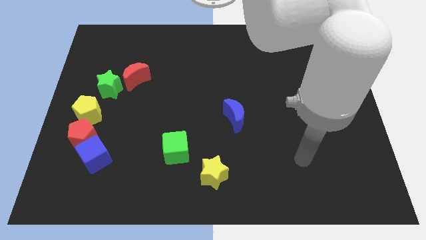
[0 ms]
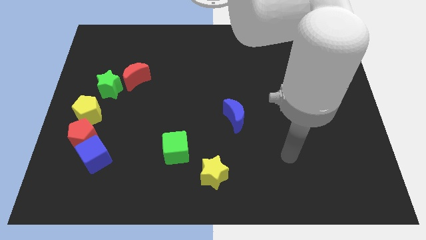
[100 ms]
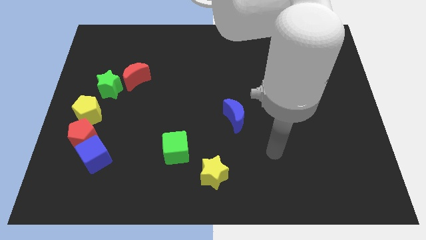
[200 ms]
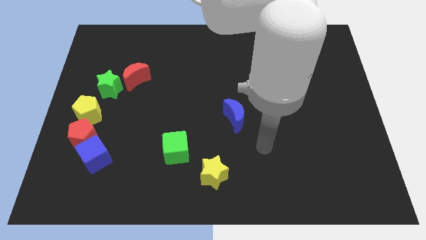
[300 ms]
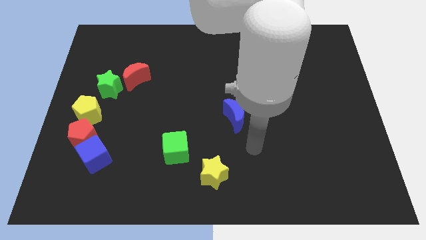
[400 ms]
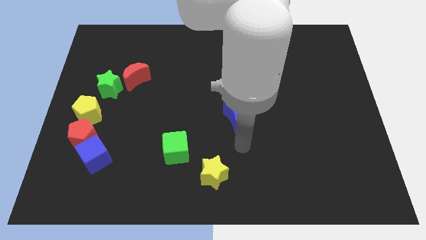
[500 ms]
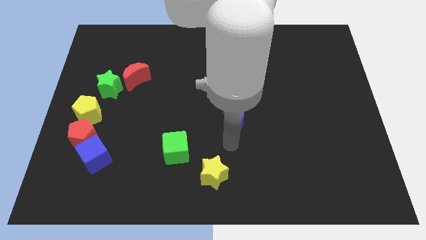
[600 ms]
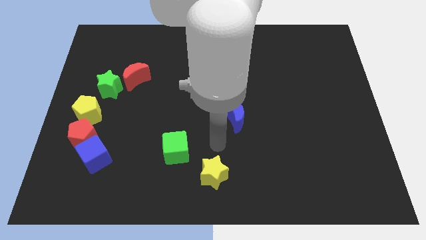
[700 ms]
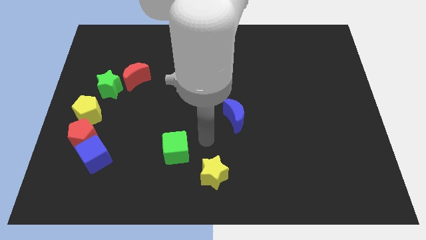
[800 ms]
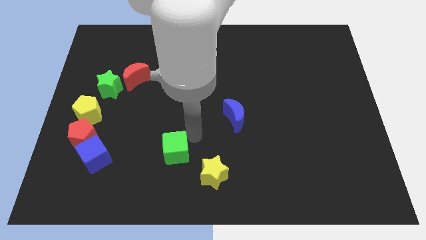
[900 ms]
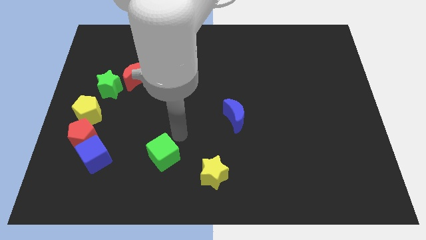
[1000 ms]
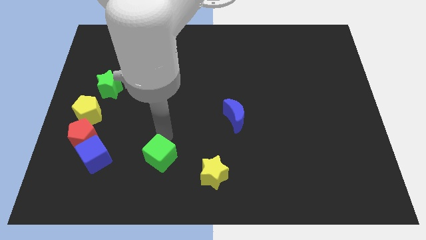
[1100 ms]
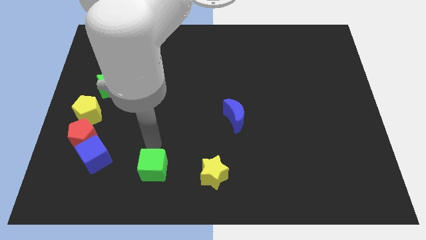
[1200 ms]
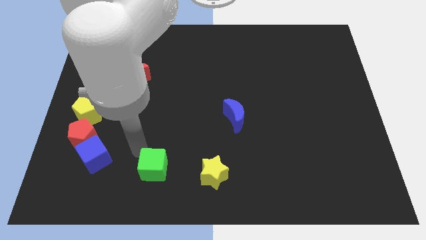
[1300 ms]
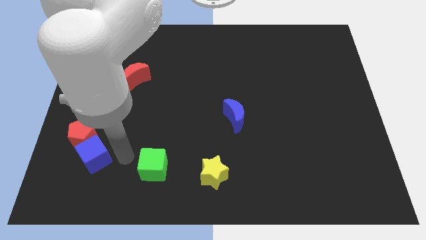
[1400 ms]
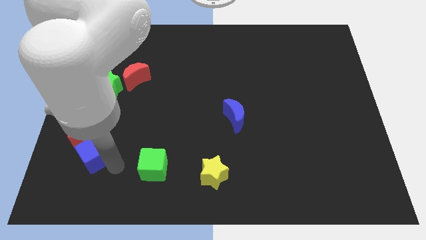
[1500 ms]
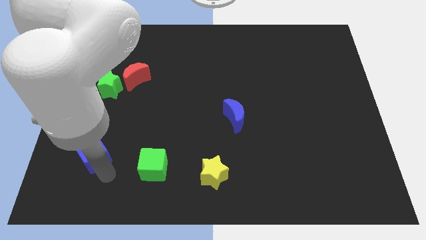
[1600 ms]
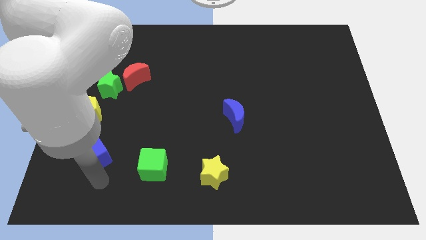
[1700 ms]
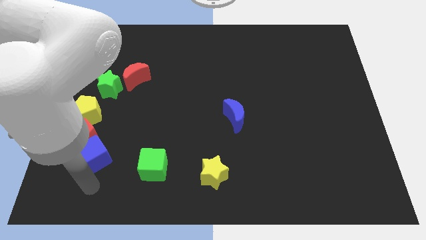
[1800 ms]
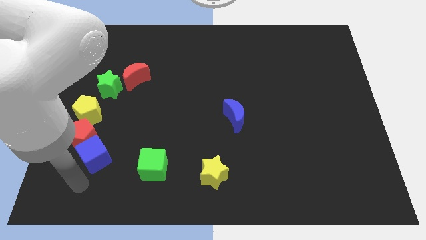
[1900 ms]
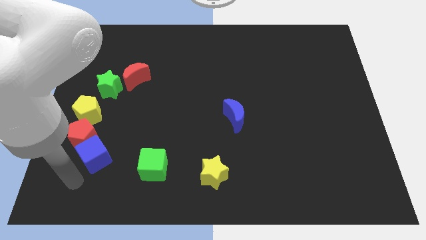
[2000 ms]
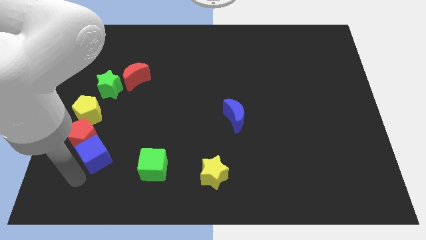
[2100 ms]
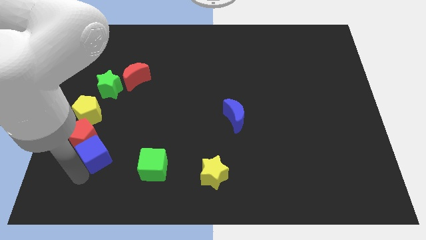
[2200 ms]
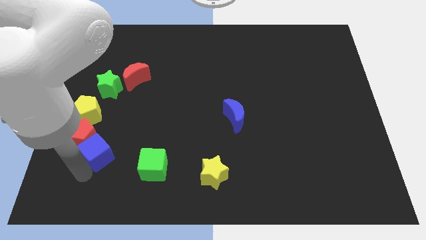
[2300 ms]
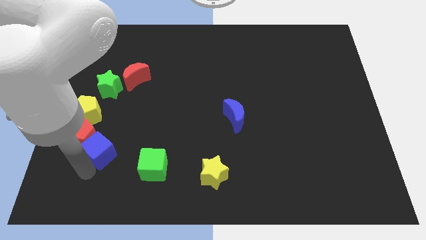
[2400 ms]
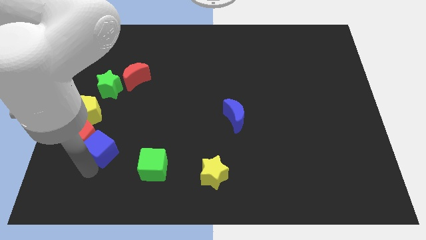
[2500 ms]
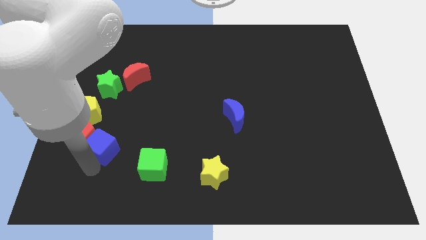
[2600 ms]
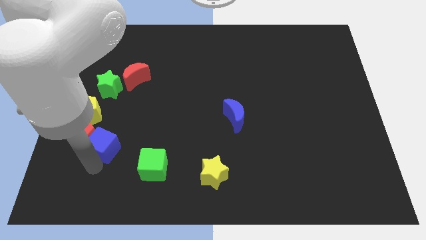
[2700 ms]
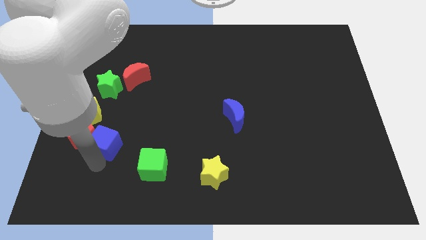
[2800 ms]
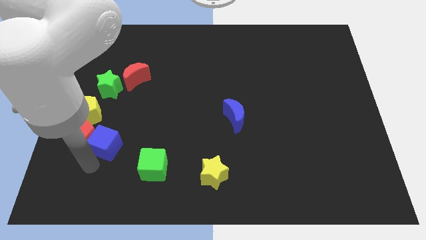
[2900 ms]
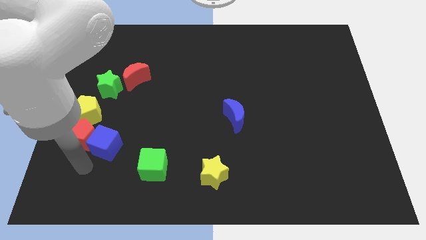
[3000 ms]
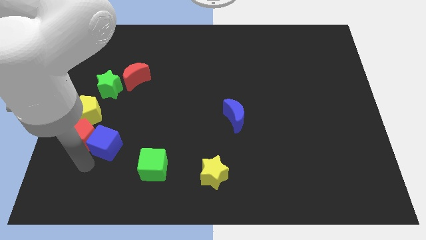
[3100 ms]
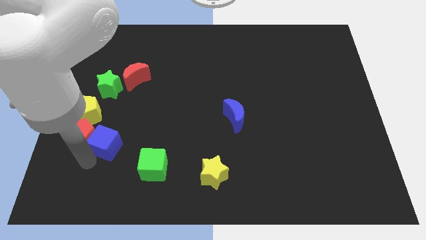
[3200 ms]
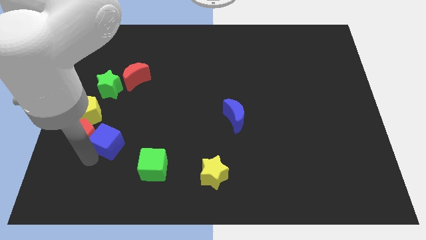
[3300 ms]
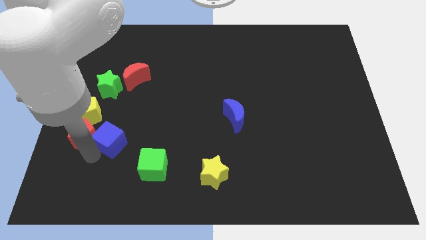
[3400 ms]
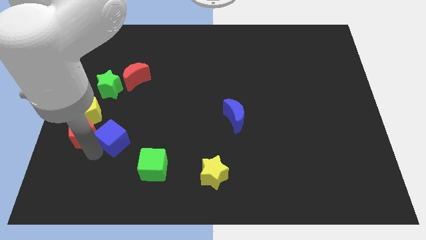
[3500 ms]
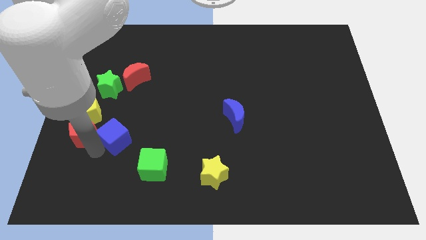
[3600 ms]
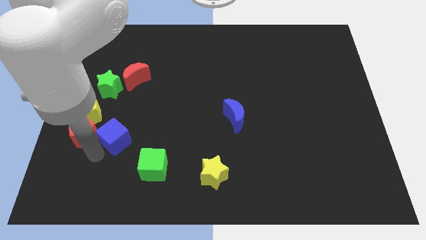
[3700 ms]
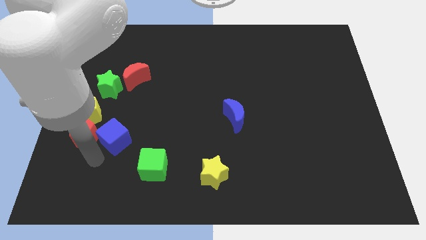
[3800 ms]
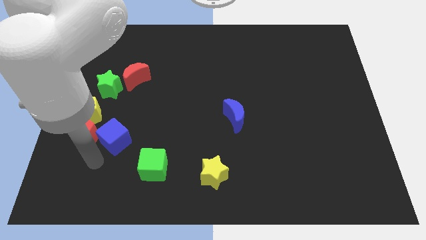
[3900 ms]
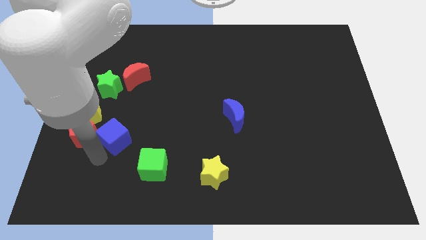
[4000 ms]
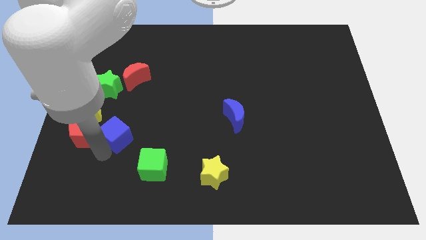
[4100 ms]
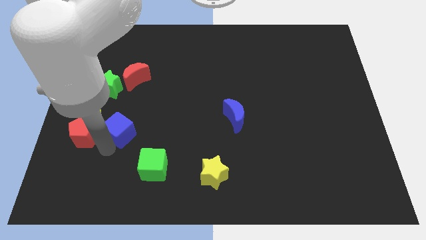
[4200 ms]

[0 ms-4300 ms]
move the blue cube upwards and then to the right a little

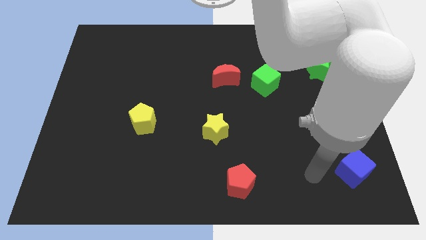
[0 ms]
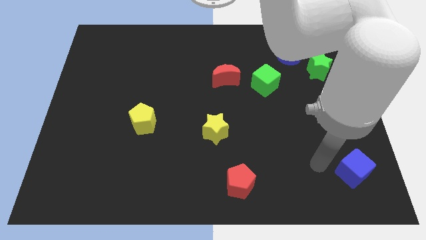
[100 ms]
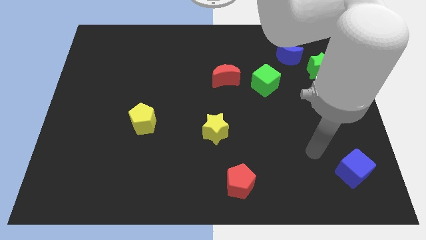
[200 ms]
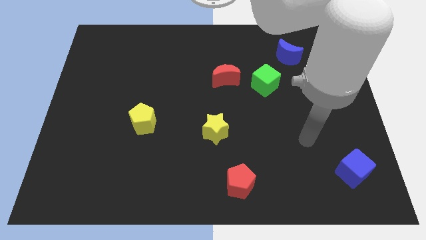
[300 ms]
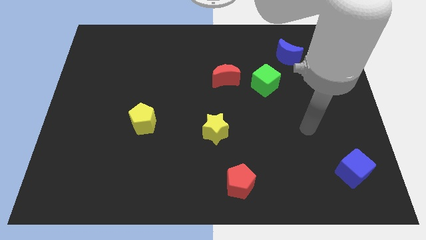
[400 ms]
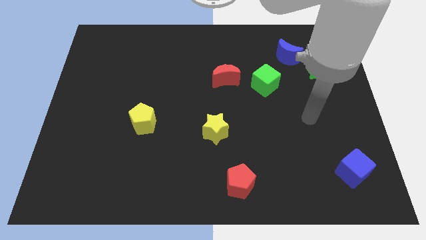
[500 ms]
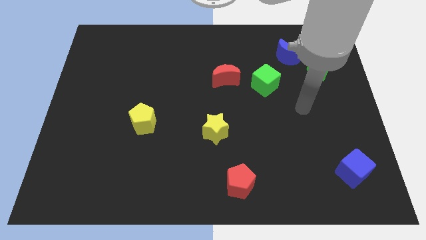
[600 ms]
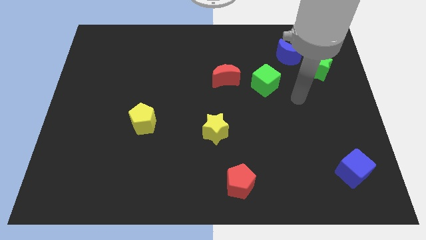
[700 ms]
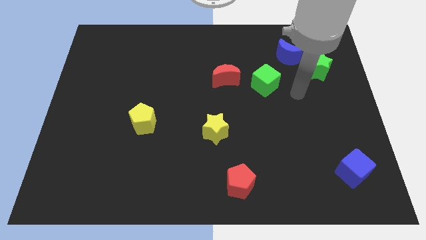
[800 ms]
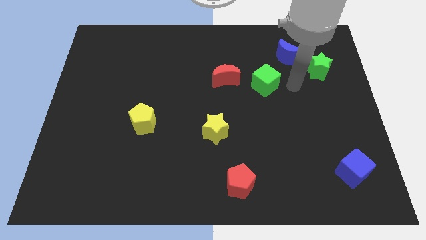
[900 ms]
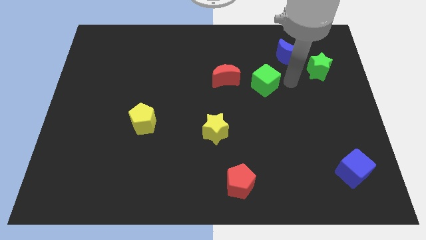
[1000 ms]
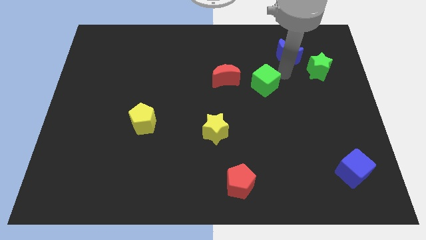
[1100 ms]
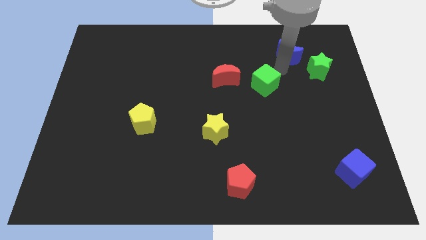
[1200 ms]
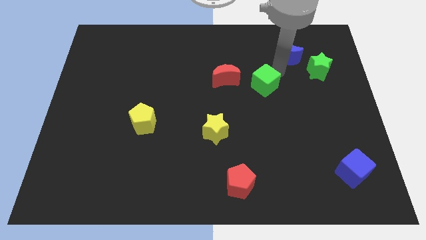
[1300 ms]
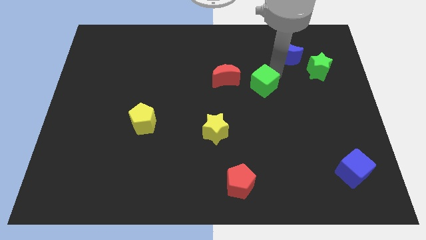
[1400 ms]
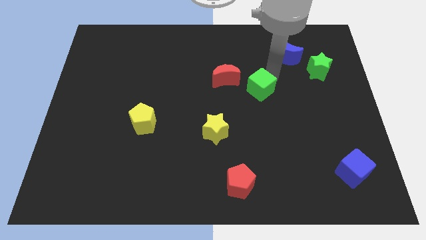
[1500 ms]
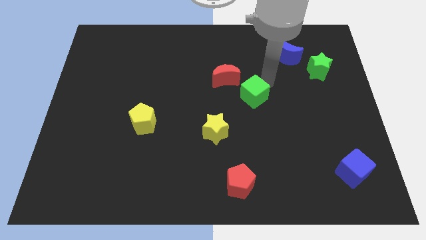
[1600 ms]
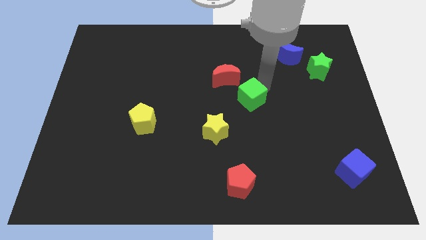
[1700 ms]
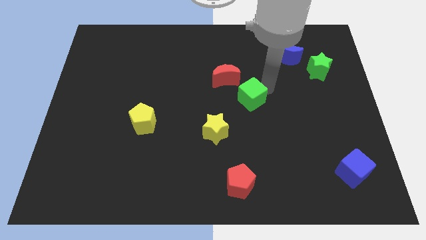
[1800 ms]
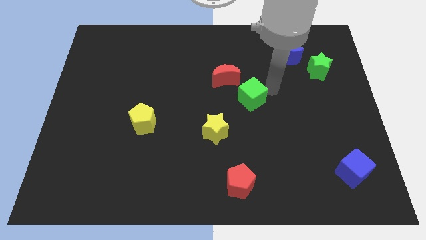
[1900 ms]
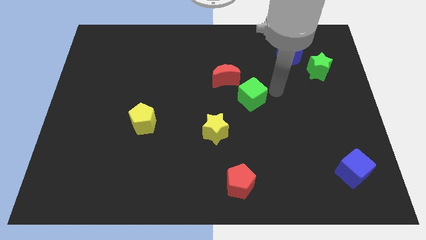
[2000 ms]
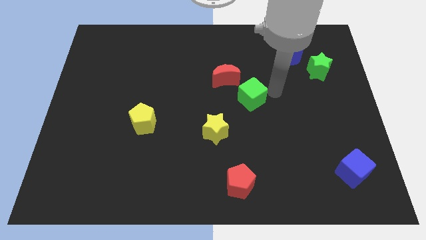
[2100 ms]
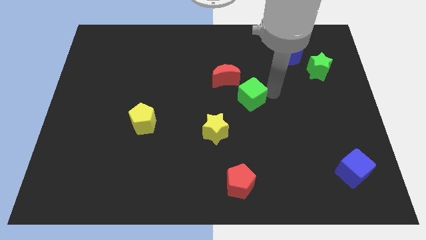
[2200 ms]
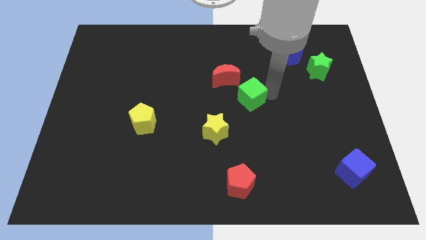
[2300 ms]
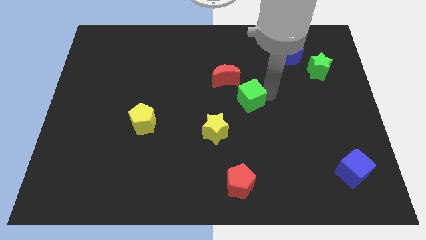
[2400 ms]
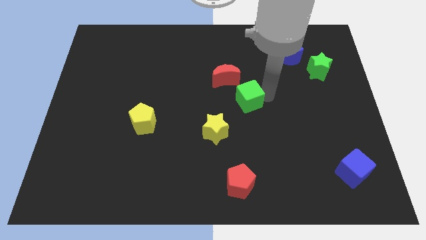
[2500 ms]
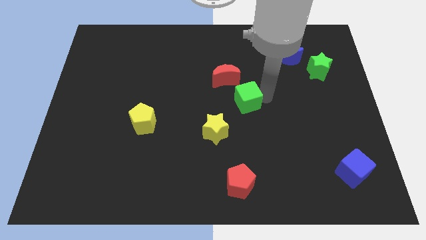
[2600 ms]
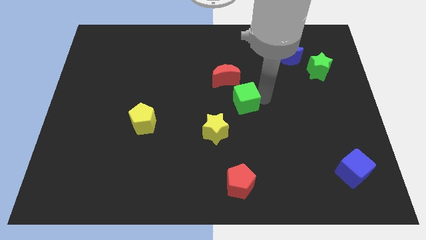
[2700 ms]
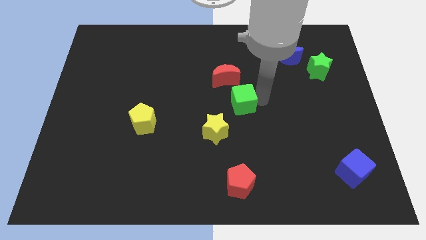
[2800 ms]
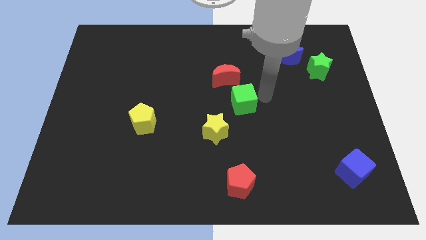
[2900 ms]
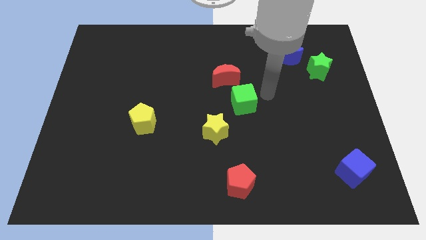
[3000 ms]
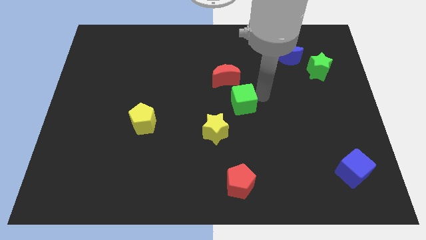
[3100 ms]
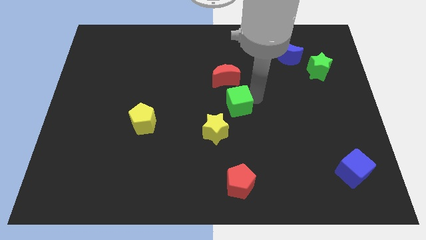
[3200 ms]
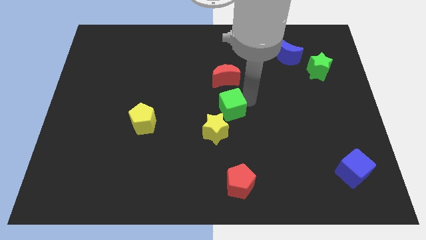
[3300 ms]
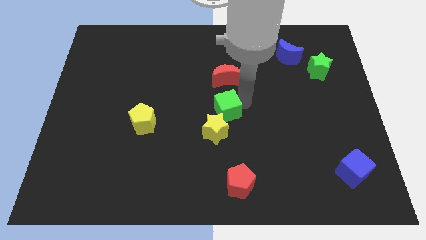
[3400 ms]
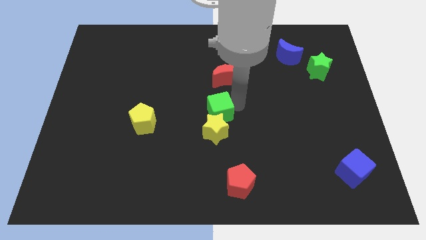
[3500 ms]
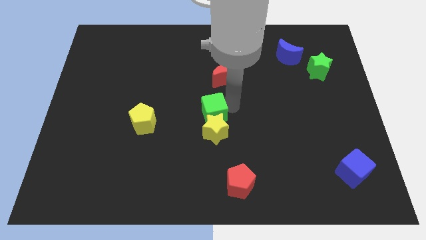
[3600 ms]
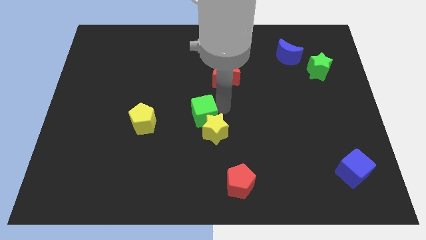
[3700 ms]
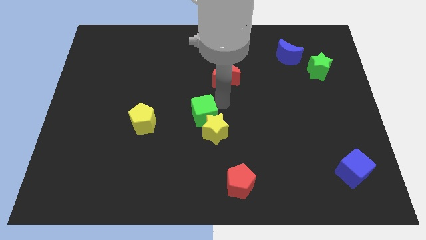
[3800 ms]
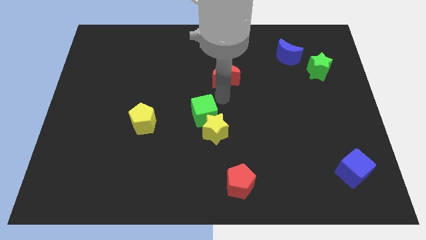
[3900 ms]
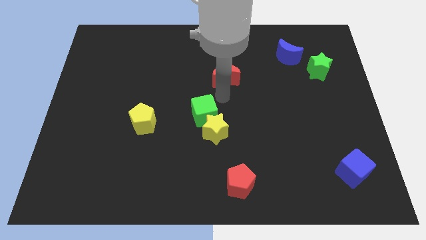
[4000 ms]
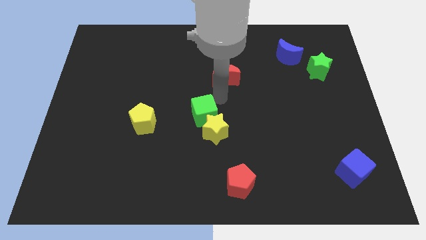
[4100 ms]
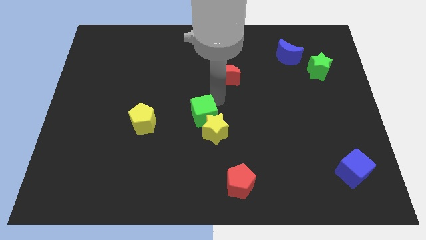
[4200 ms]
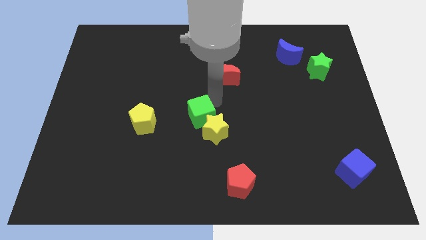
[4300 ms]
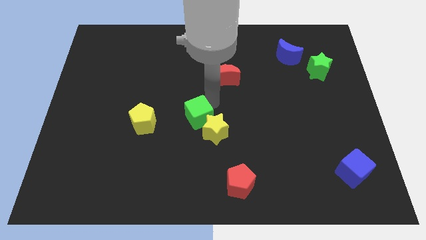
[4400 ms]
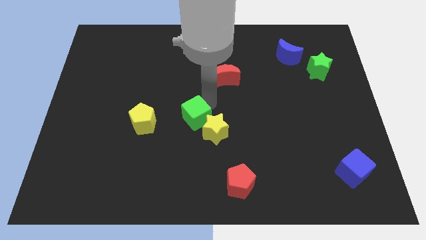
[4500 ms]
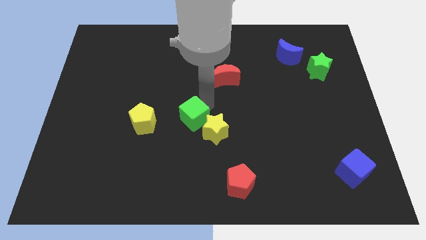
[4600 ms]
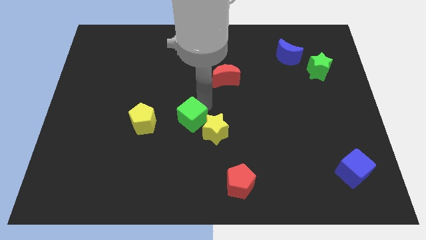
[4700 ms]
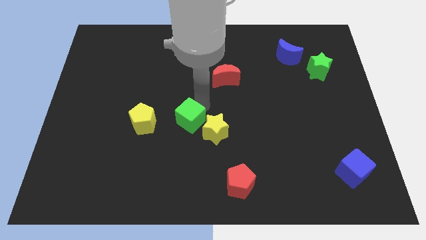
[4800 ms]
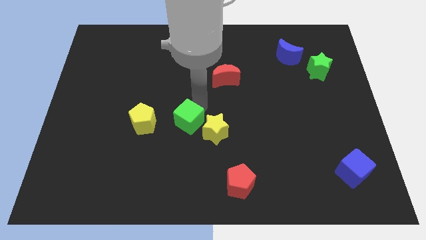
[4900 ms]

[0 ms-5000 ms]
push the green cube down and then to the left
